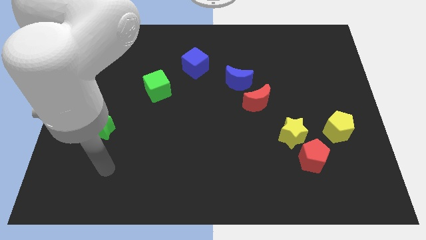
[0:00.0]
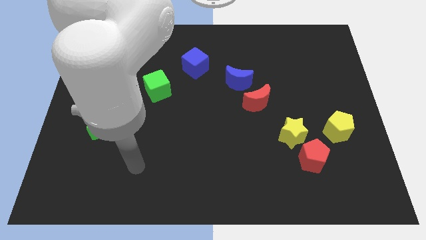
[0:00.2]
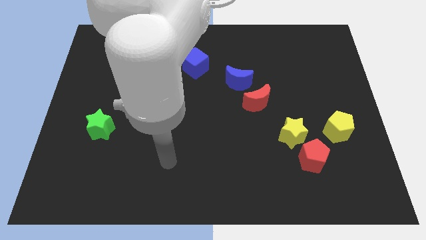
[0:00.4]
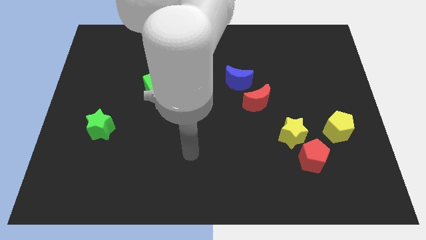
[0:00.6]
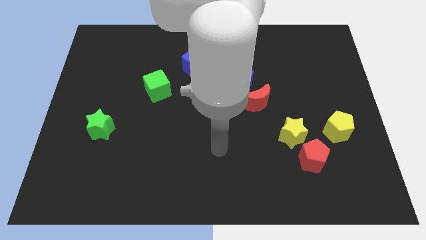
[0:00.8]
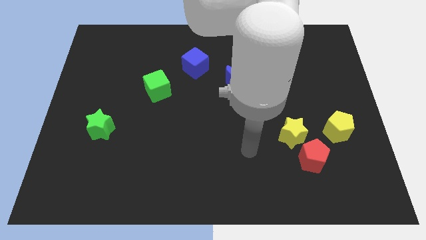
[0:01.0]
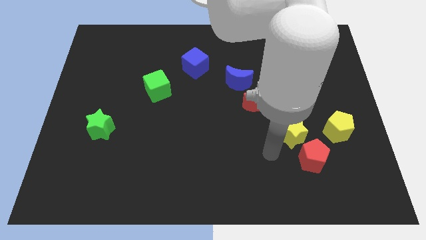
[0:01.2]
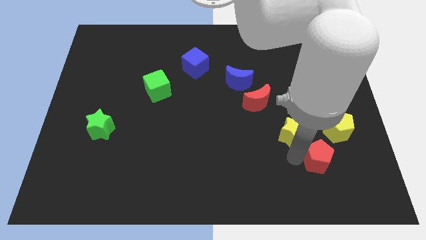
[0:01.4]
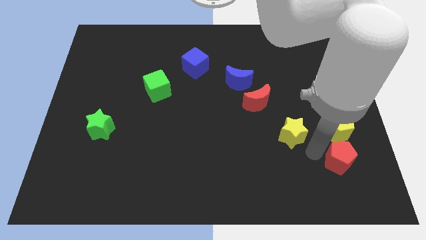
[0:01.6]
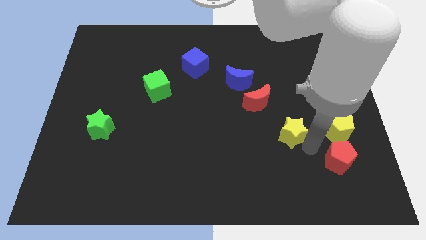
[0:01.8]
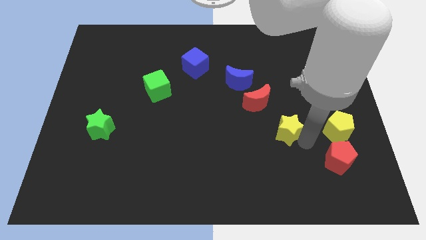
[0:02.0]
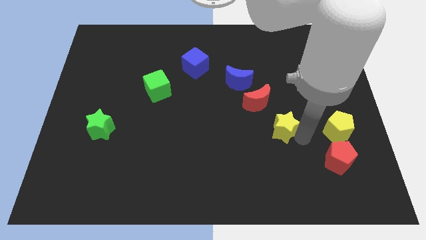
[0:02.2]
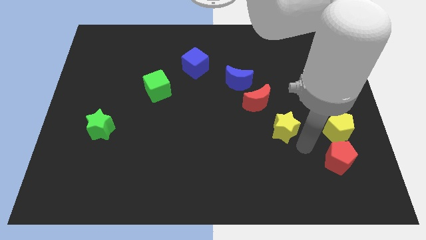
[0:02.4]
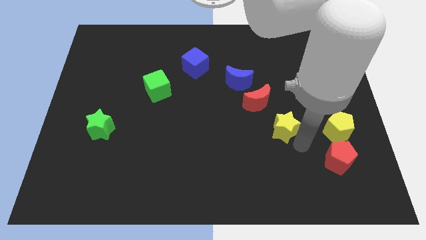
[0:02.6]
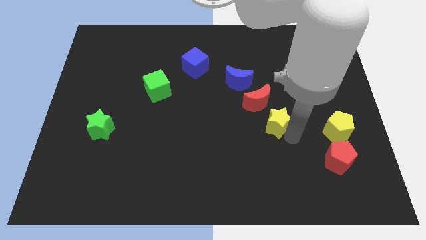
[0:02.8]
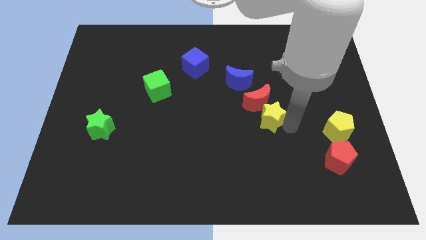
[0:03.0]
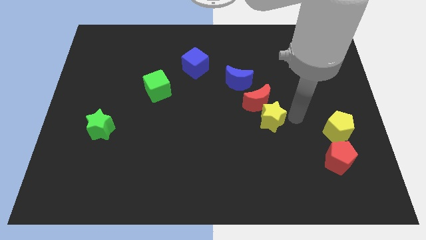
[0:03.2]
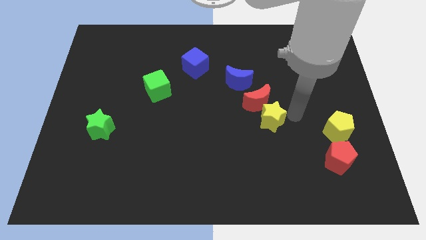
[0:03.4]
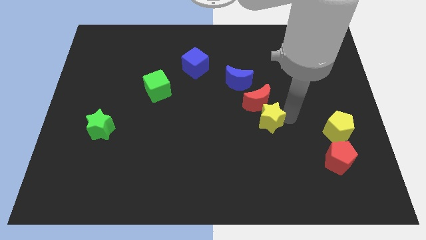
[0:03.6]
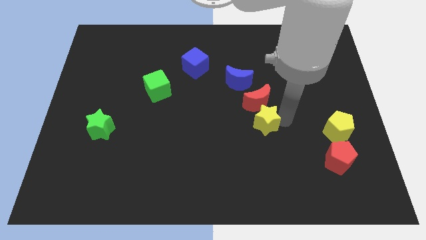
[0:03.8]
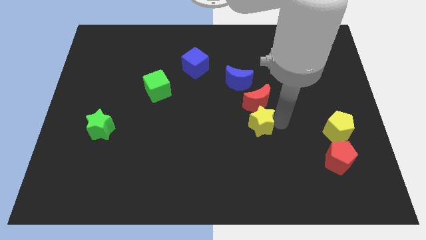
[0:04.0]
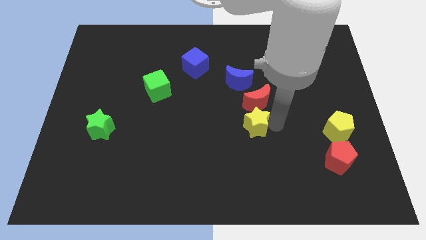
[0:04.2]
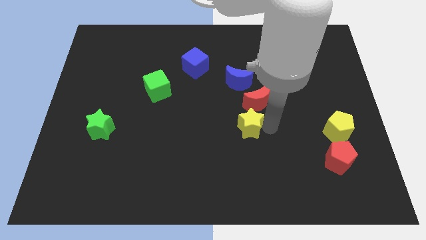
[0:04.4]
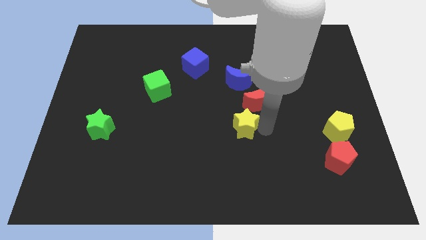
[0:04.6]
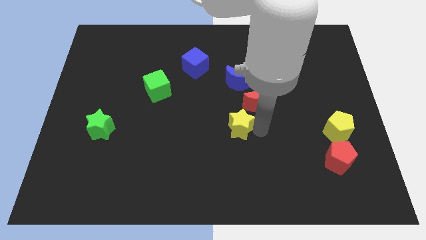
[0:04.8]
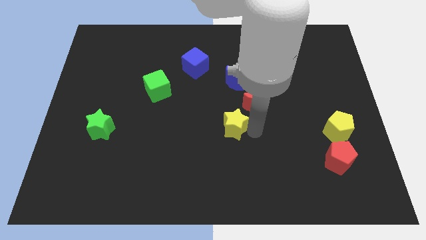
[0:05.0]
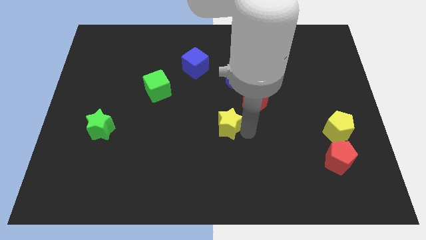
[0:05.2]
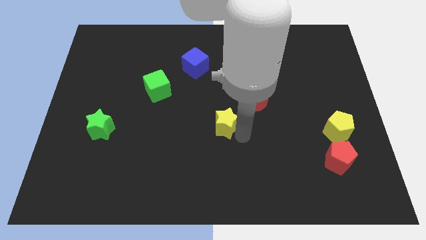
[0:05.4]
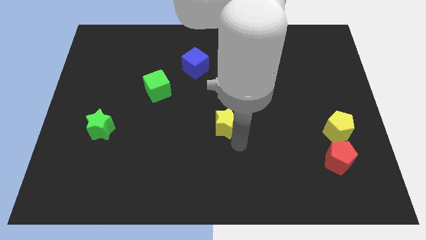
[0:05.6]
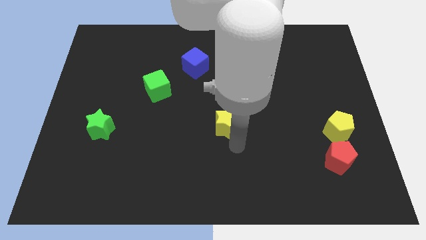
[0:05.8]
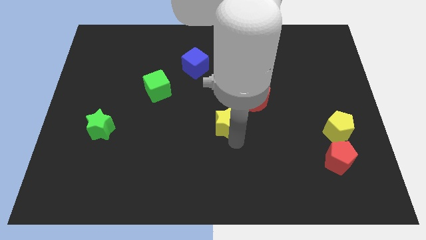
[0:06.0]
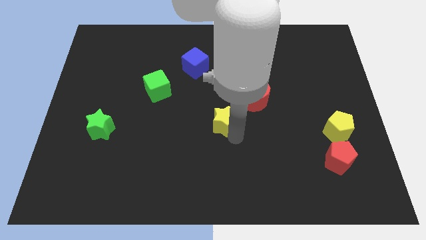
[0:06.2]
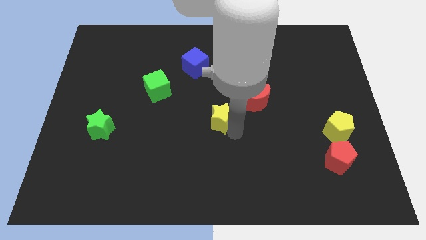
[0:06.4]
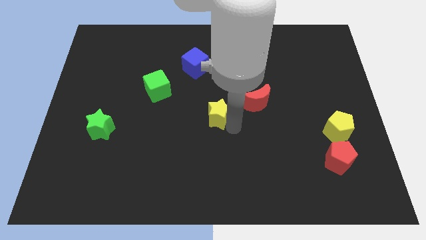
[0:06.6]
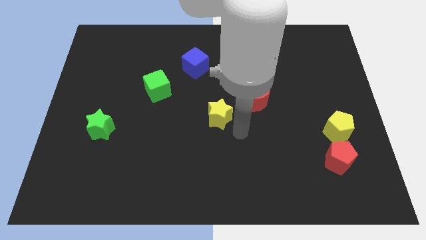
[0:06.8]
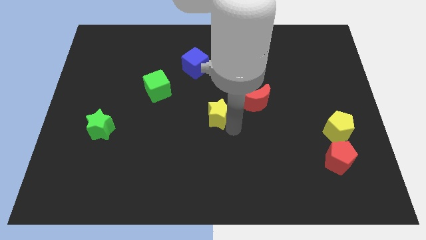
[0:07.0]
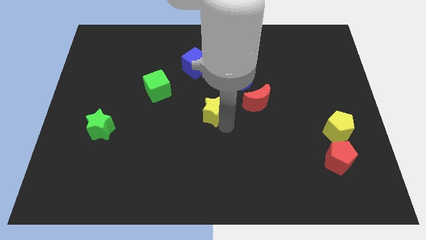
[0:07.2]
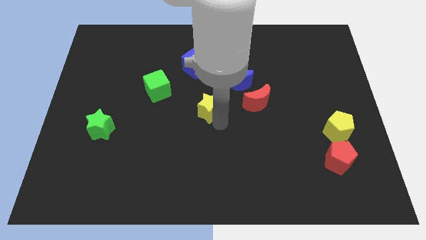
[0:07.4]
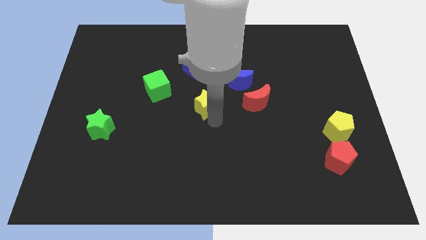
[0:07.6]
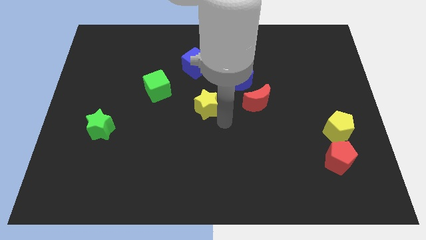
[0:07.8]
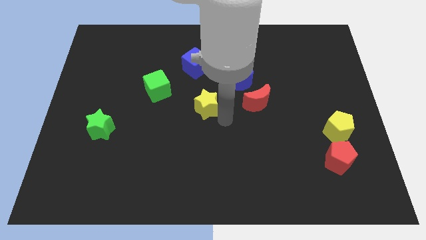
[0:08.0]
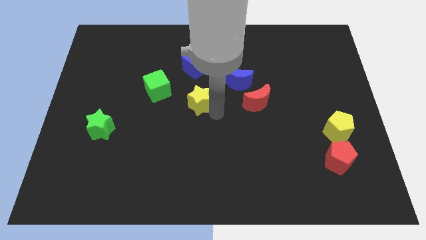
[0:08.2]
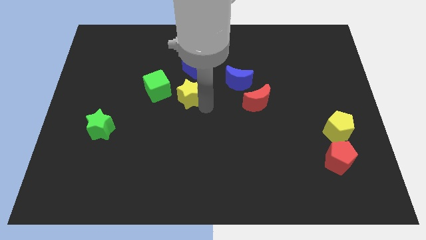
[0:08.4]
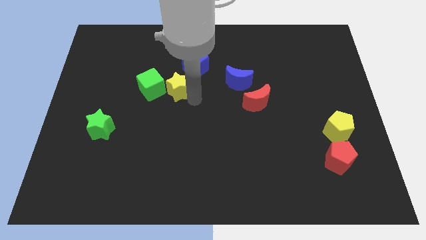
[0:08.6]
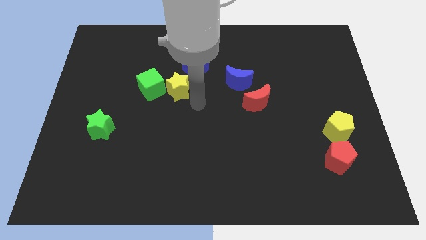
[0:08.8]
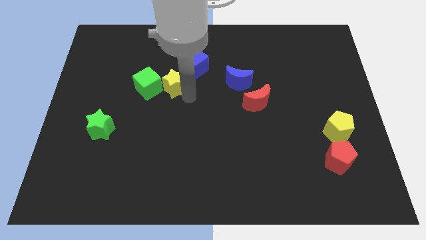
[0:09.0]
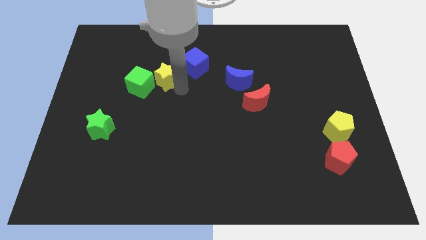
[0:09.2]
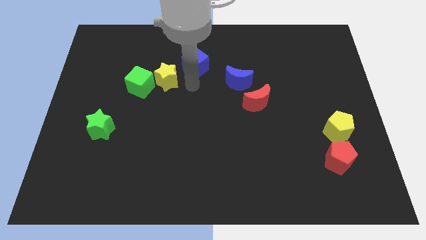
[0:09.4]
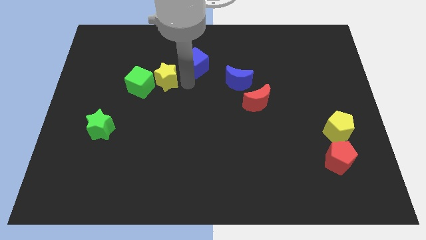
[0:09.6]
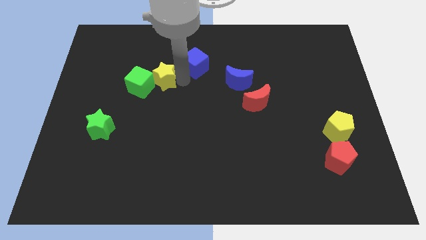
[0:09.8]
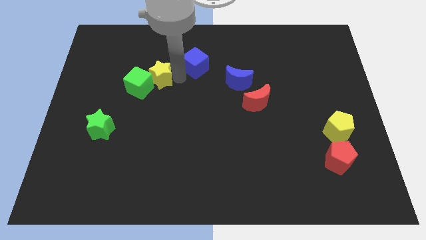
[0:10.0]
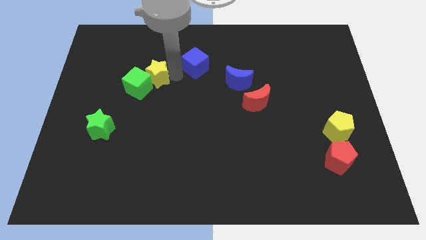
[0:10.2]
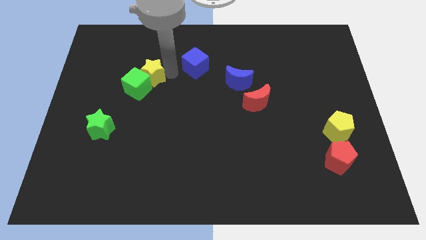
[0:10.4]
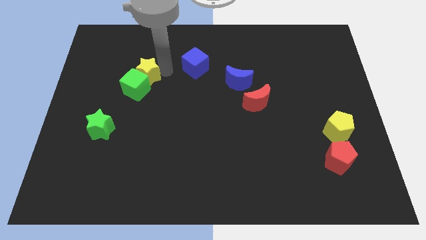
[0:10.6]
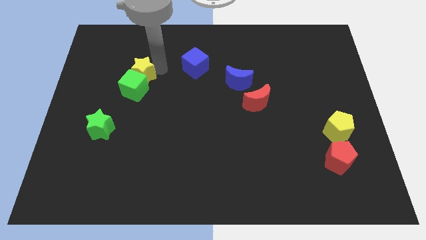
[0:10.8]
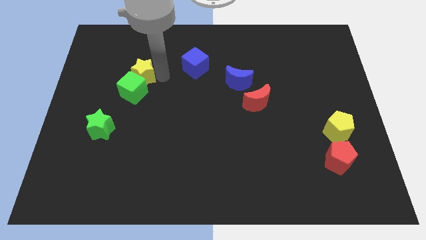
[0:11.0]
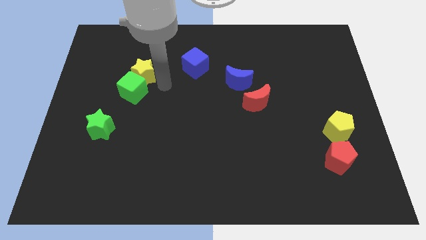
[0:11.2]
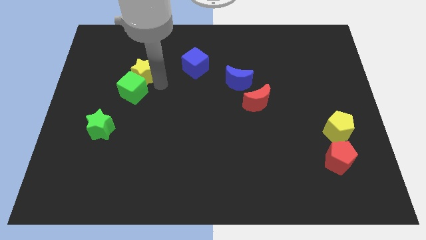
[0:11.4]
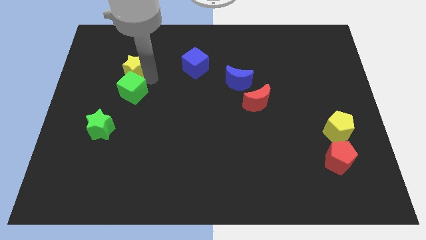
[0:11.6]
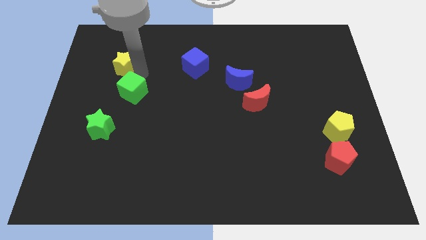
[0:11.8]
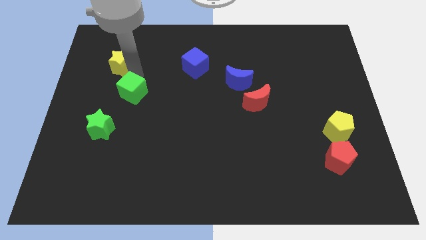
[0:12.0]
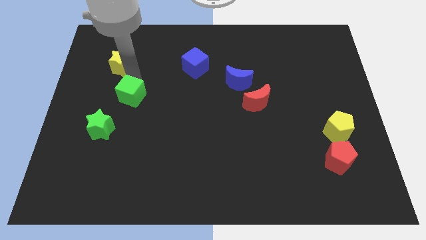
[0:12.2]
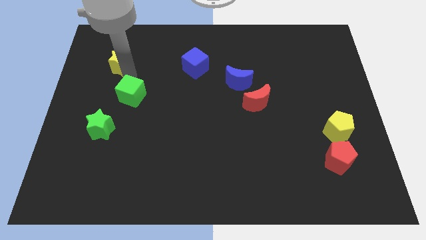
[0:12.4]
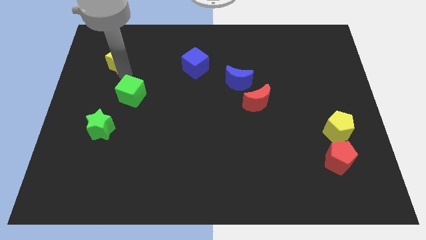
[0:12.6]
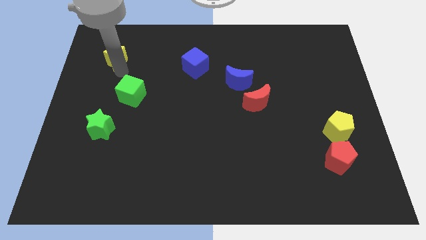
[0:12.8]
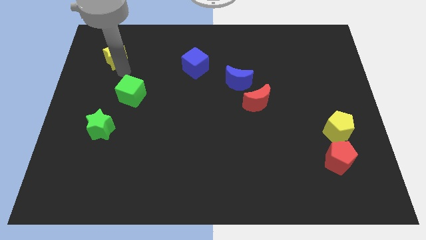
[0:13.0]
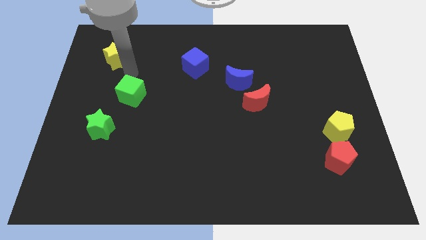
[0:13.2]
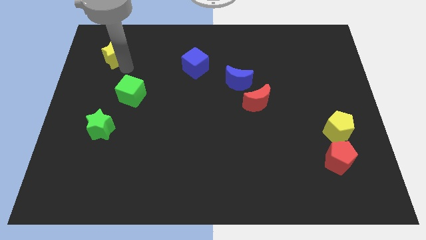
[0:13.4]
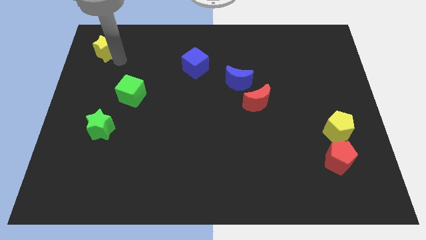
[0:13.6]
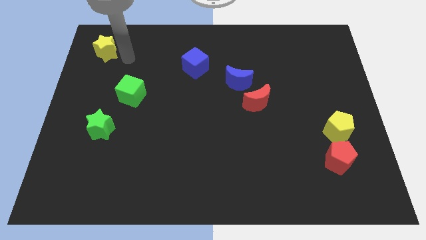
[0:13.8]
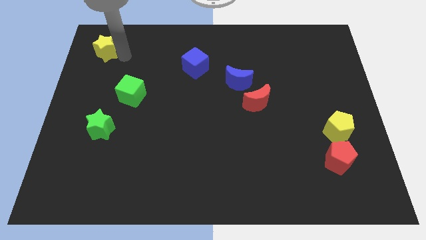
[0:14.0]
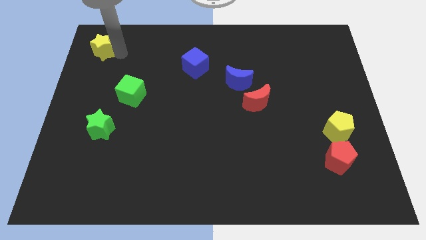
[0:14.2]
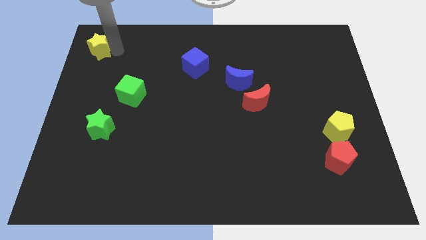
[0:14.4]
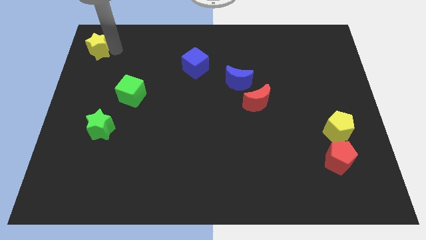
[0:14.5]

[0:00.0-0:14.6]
put the yellow star to the top left of the board
